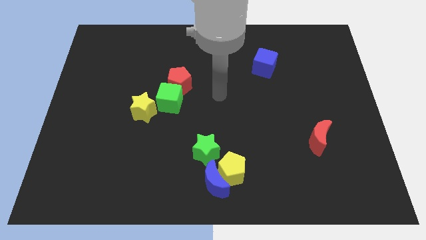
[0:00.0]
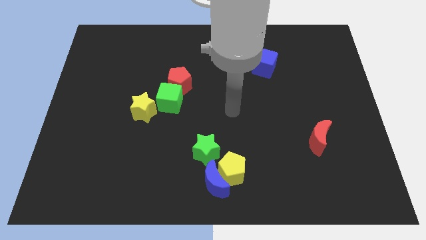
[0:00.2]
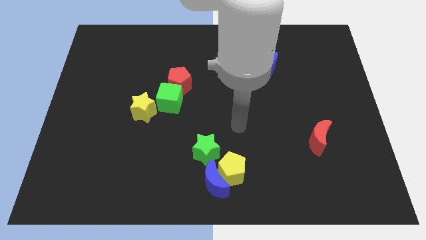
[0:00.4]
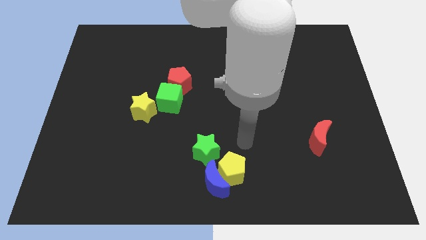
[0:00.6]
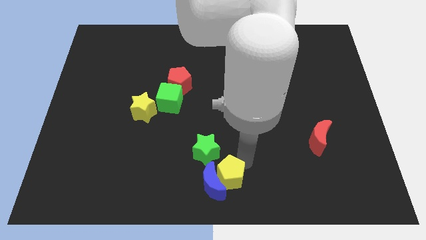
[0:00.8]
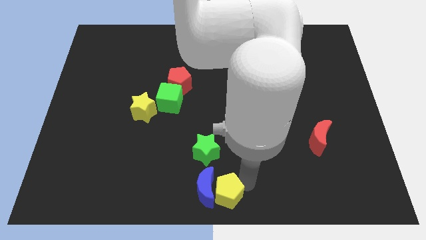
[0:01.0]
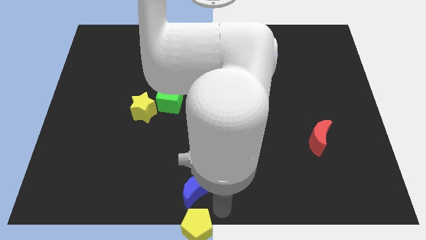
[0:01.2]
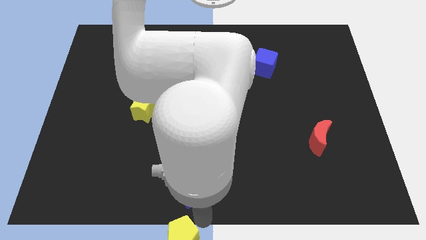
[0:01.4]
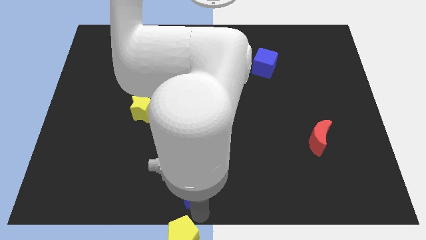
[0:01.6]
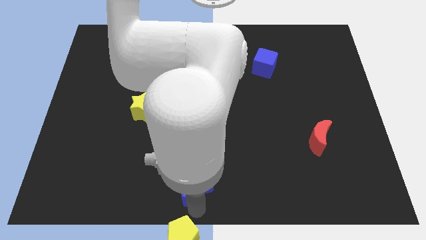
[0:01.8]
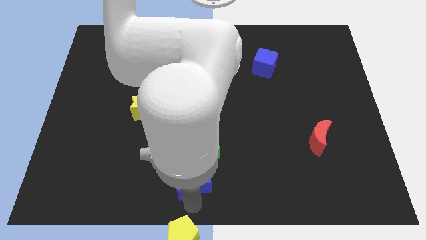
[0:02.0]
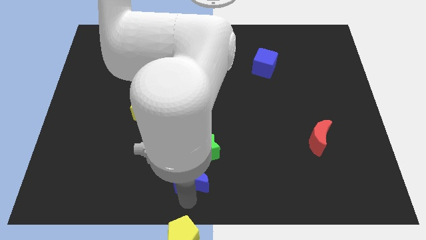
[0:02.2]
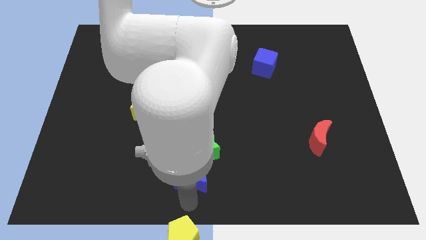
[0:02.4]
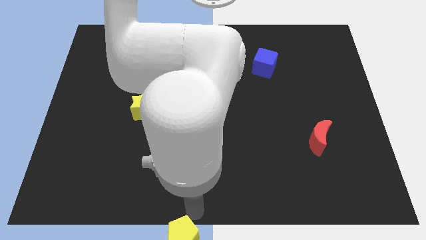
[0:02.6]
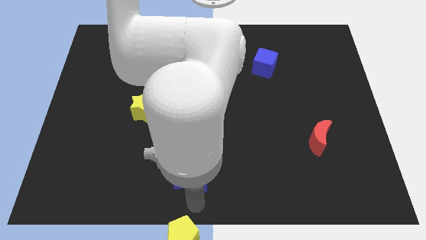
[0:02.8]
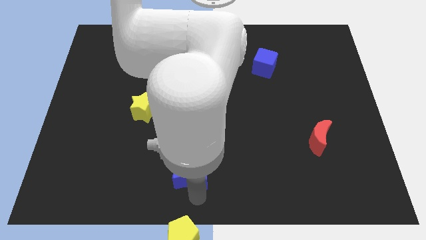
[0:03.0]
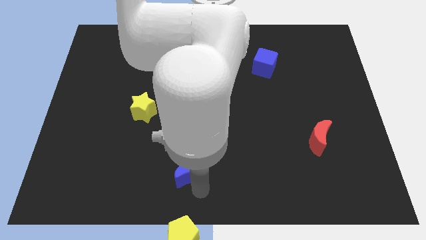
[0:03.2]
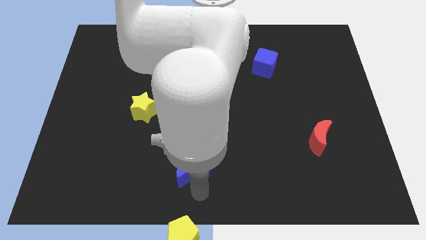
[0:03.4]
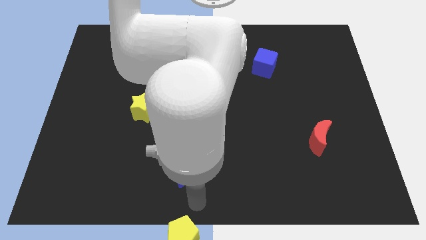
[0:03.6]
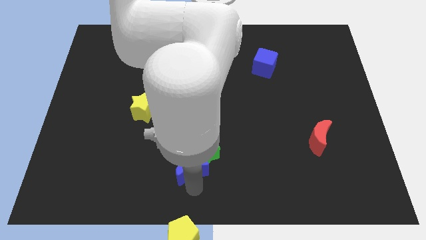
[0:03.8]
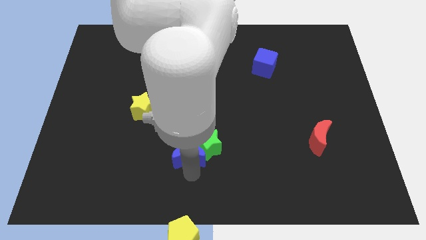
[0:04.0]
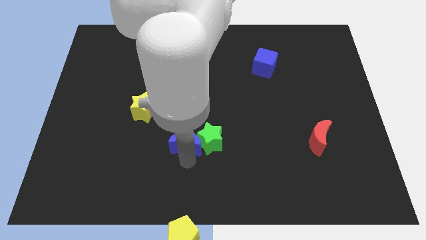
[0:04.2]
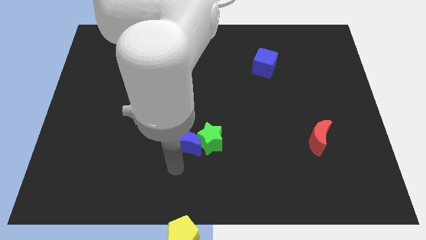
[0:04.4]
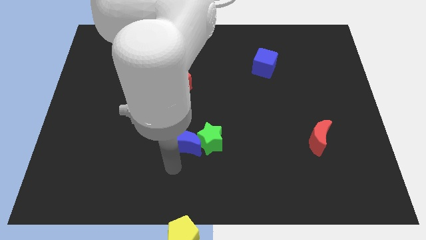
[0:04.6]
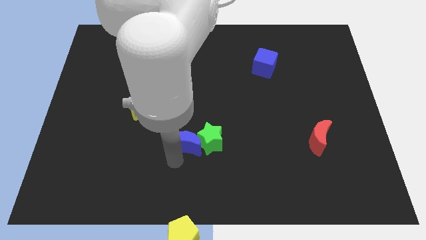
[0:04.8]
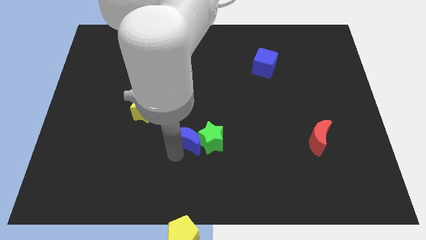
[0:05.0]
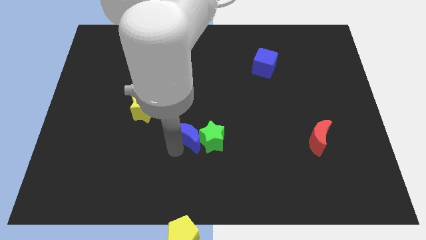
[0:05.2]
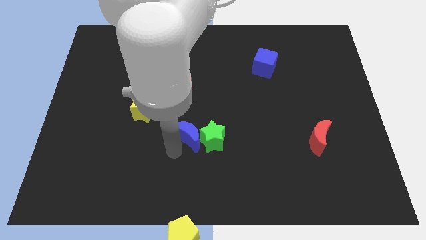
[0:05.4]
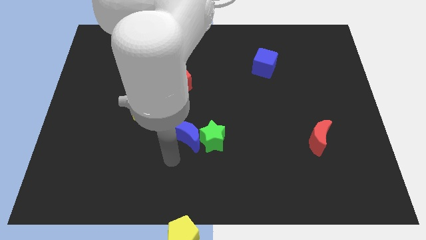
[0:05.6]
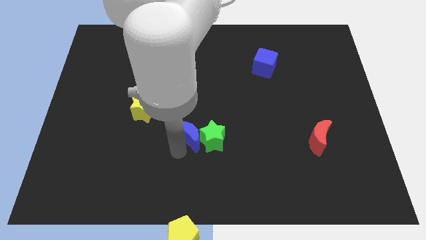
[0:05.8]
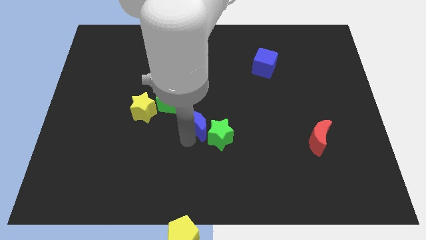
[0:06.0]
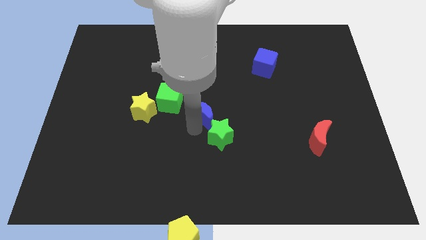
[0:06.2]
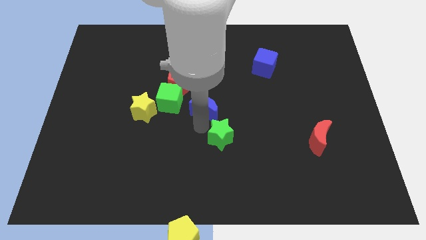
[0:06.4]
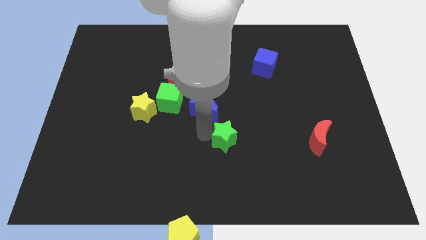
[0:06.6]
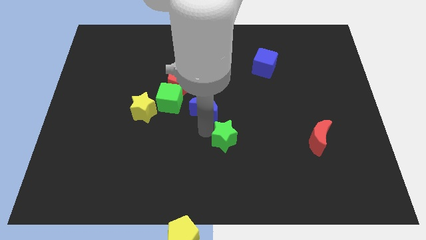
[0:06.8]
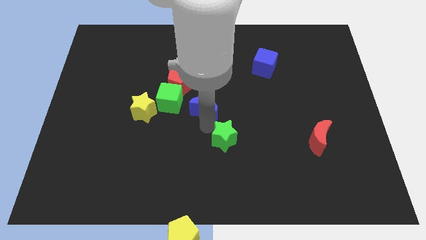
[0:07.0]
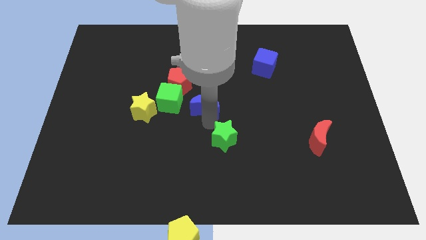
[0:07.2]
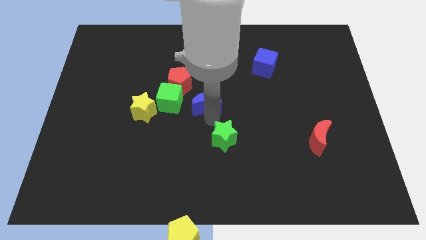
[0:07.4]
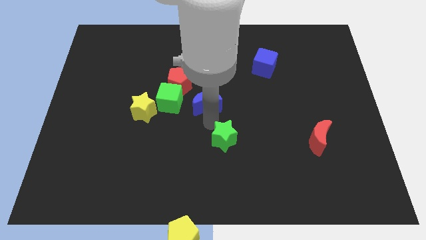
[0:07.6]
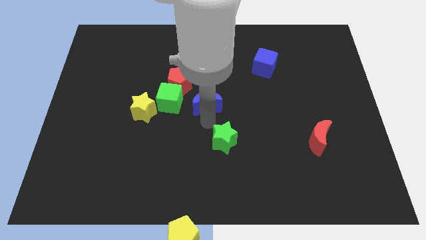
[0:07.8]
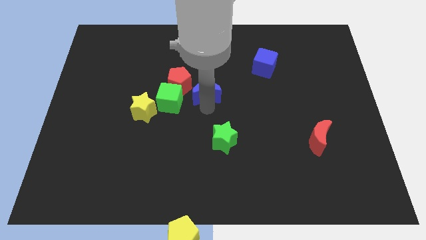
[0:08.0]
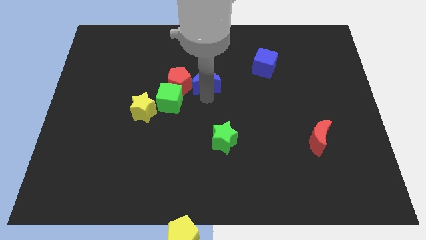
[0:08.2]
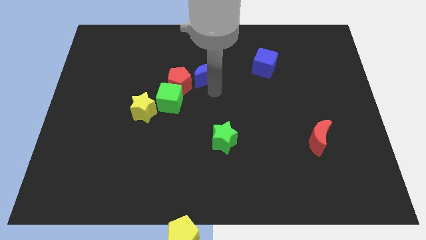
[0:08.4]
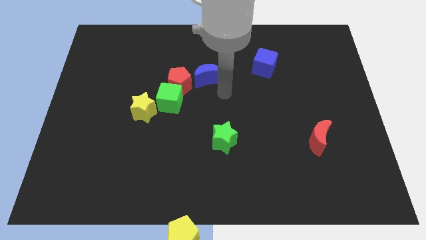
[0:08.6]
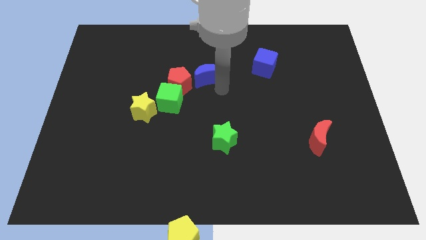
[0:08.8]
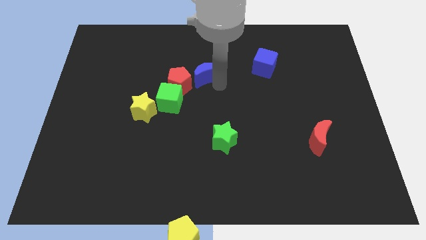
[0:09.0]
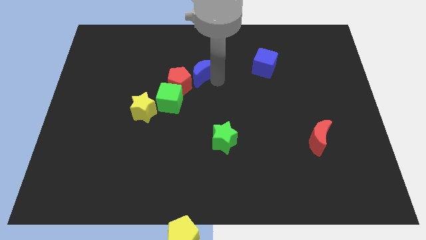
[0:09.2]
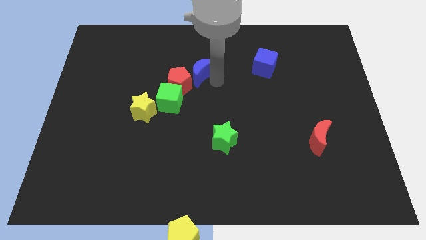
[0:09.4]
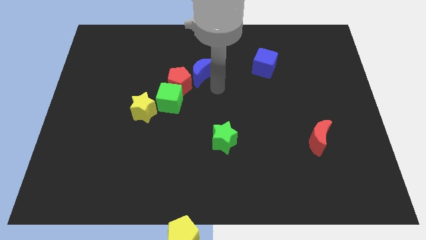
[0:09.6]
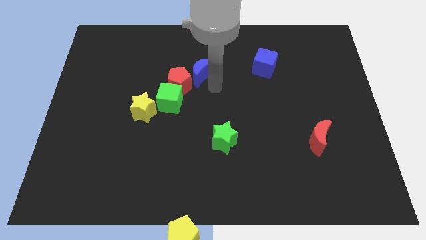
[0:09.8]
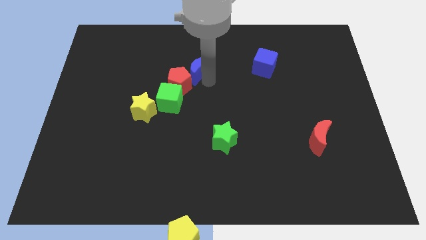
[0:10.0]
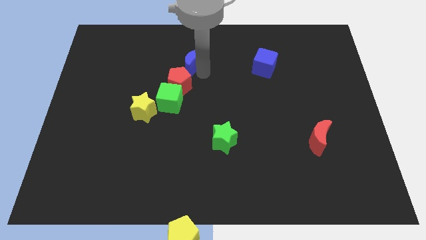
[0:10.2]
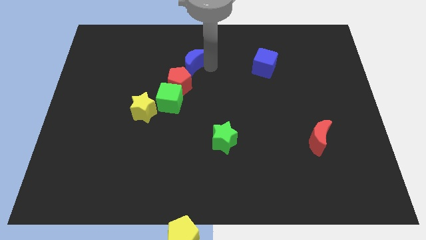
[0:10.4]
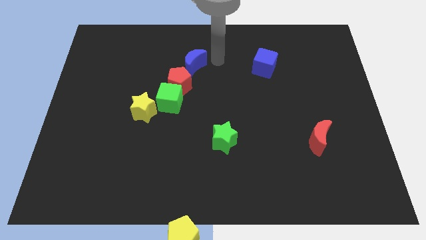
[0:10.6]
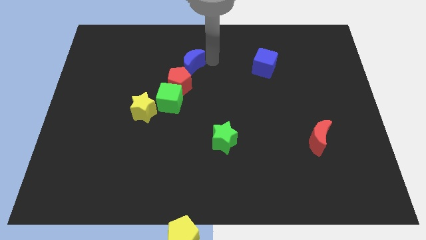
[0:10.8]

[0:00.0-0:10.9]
move the blue moon to the top of the green cube

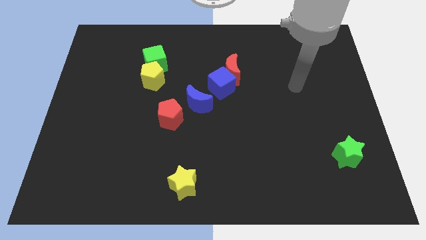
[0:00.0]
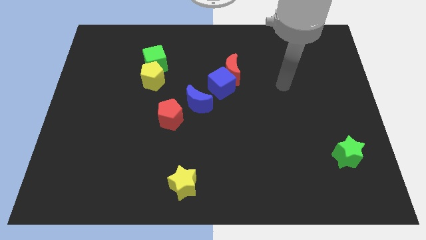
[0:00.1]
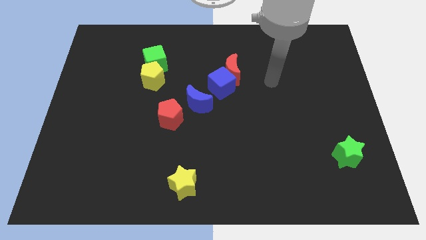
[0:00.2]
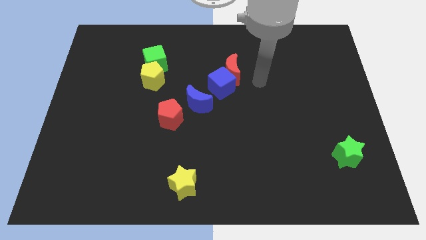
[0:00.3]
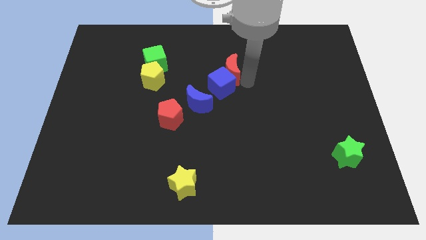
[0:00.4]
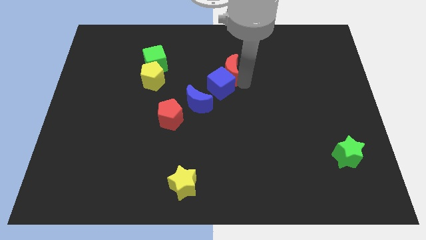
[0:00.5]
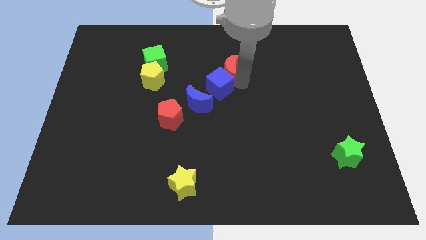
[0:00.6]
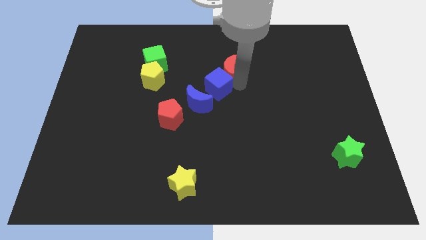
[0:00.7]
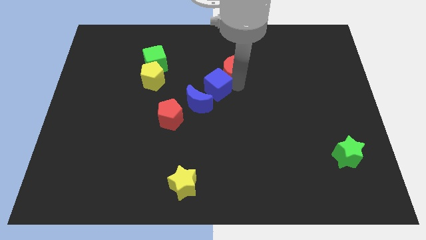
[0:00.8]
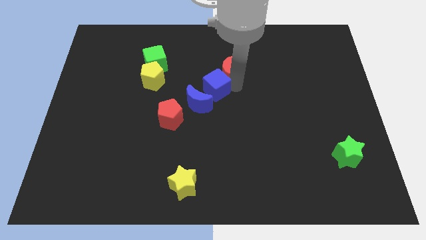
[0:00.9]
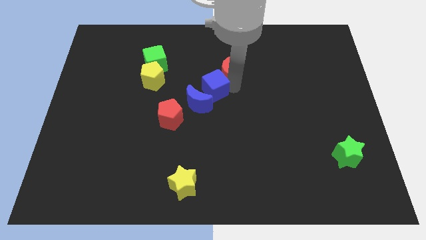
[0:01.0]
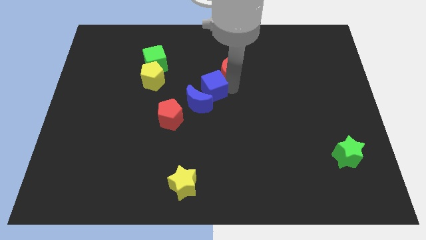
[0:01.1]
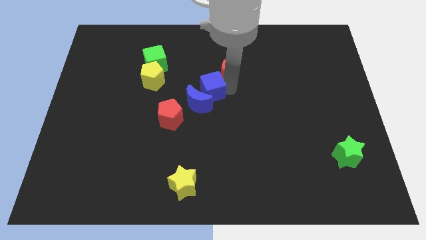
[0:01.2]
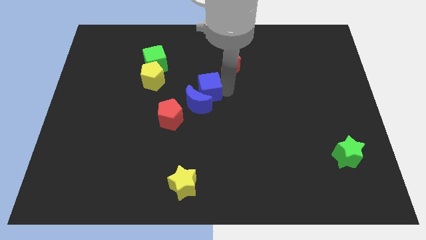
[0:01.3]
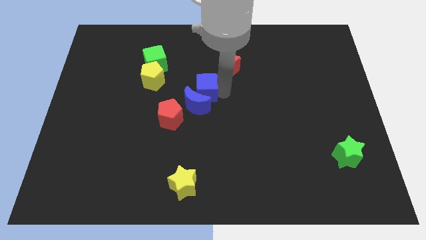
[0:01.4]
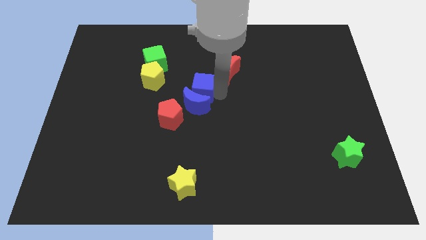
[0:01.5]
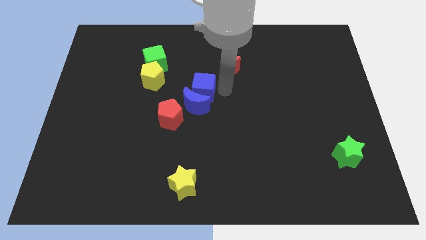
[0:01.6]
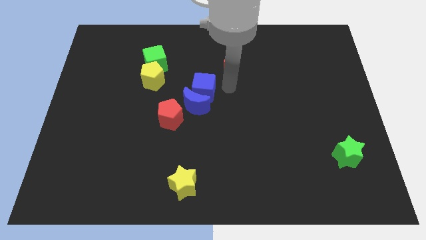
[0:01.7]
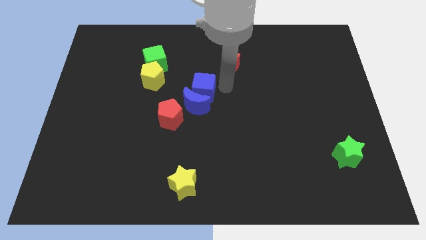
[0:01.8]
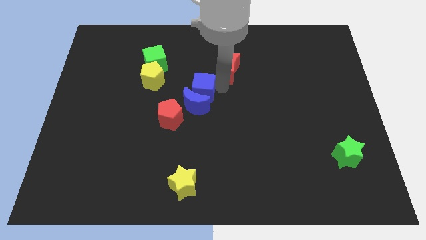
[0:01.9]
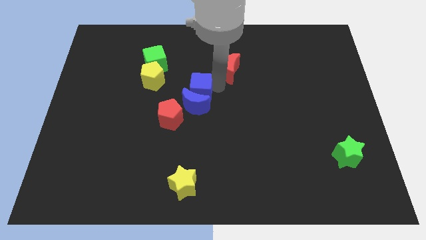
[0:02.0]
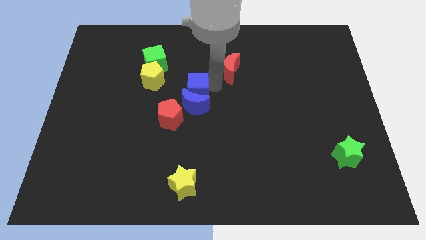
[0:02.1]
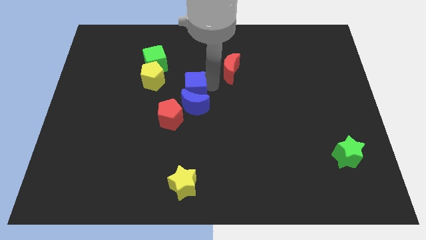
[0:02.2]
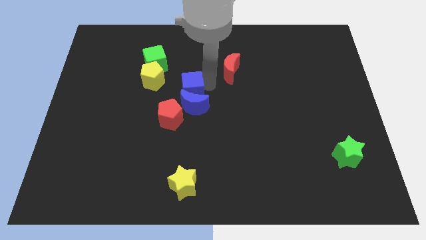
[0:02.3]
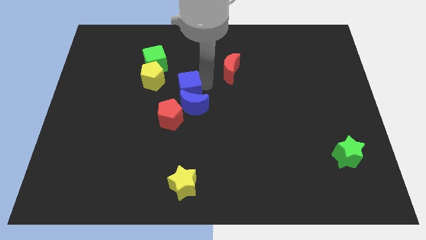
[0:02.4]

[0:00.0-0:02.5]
move the blue cube to the bottom right of the yellow pentagon
